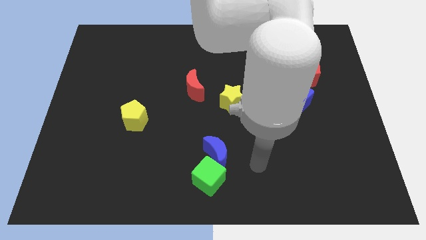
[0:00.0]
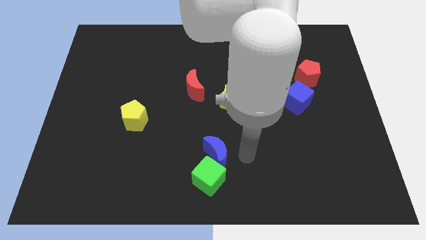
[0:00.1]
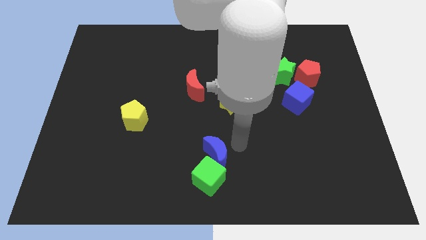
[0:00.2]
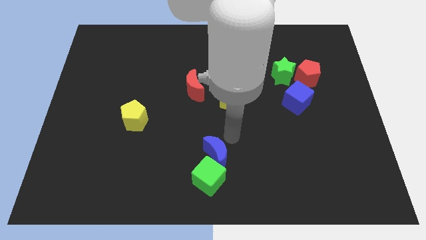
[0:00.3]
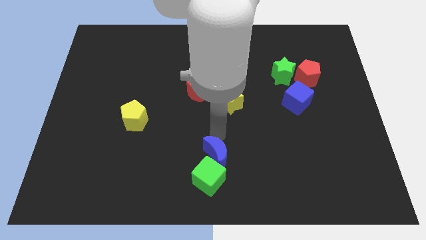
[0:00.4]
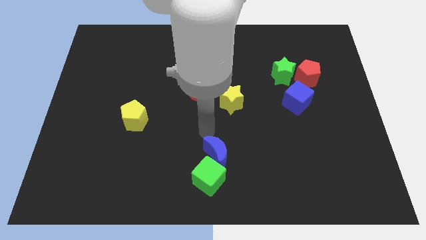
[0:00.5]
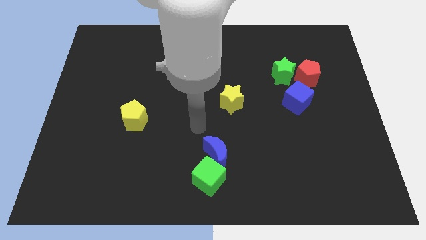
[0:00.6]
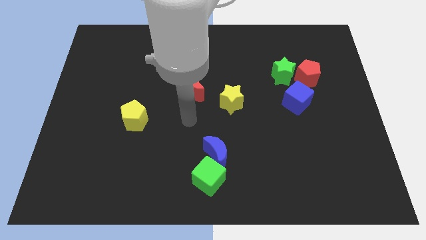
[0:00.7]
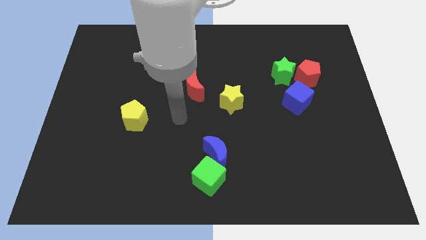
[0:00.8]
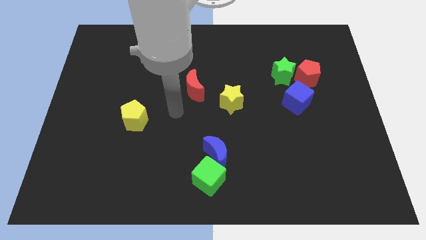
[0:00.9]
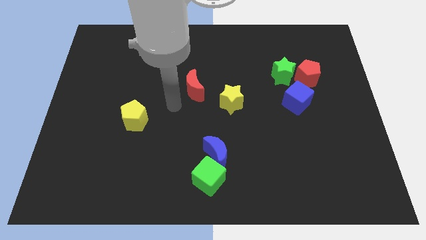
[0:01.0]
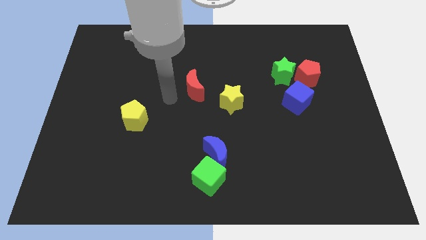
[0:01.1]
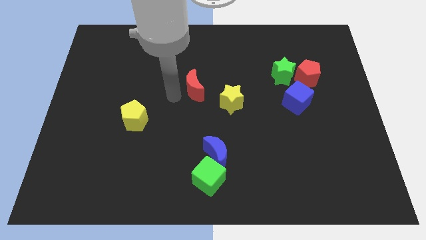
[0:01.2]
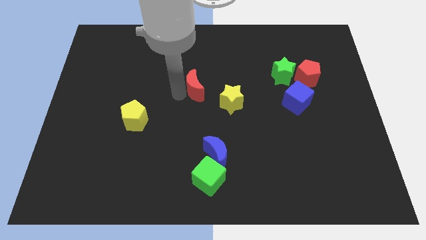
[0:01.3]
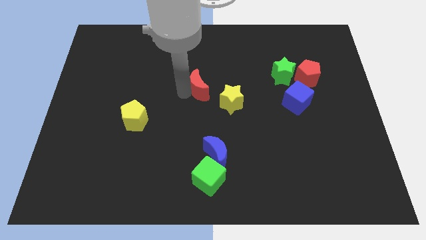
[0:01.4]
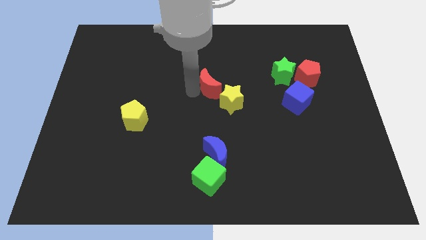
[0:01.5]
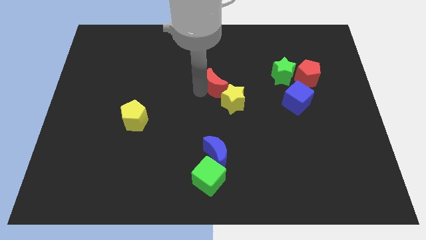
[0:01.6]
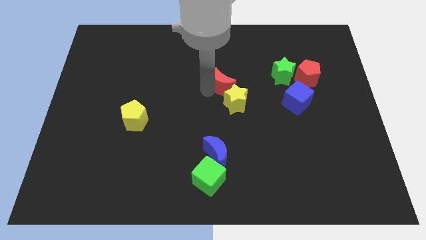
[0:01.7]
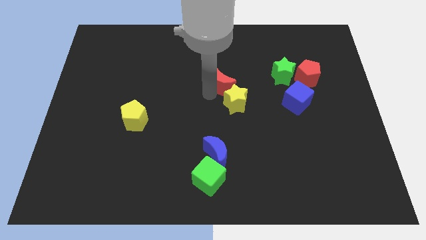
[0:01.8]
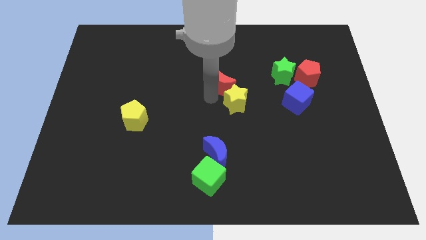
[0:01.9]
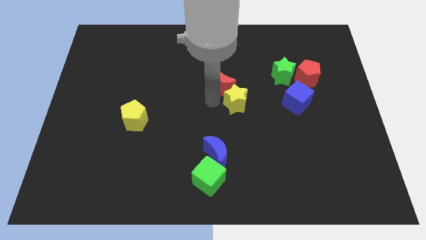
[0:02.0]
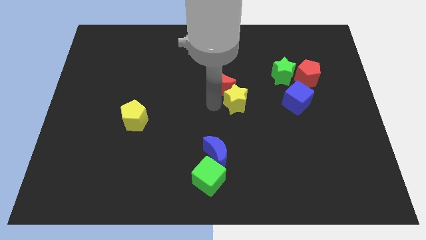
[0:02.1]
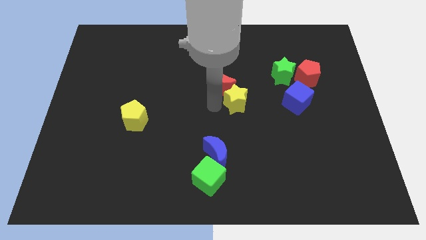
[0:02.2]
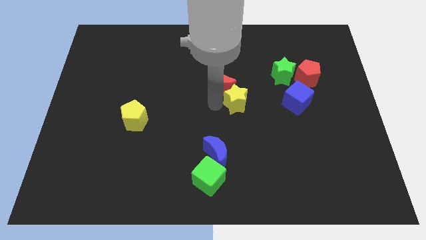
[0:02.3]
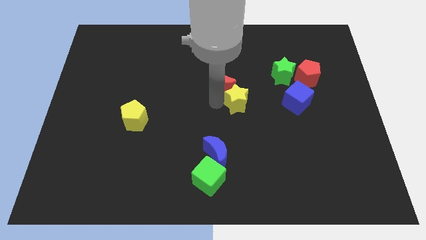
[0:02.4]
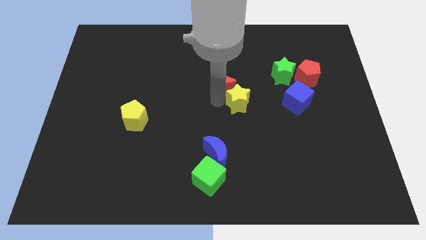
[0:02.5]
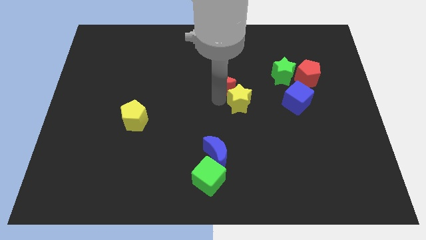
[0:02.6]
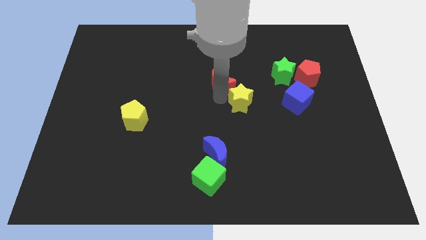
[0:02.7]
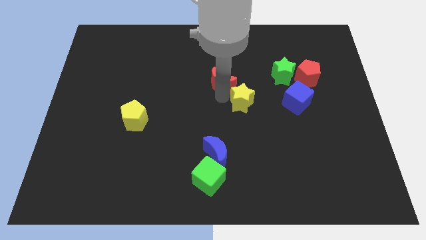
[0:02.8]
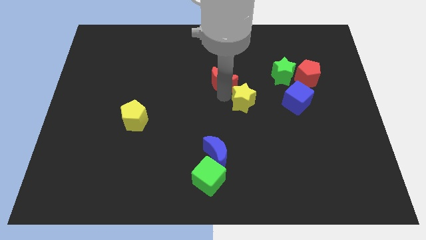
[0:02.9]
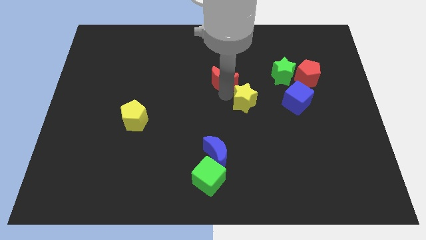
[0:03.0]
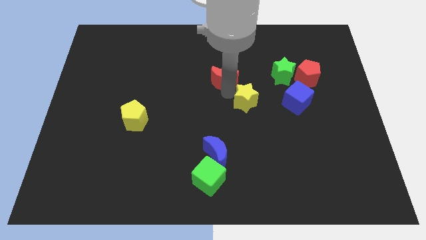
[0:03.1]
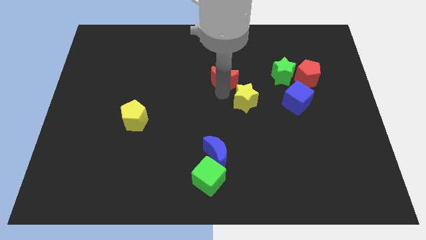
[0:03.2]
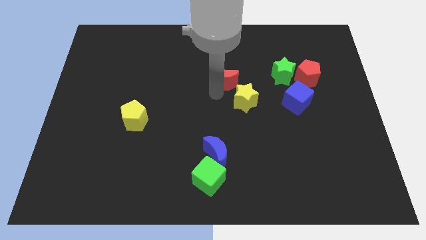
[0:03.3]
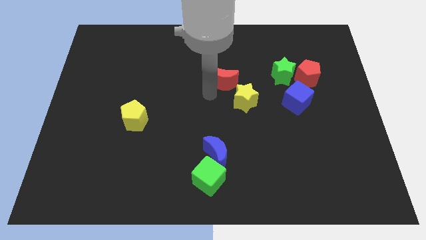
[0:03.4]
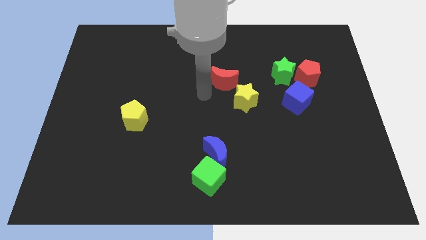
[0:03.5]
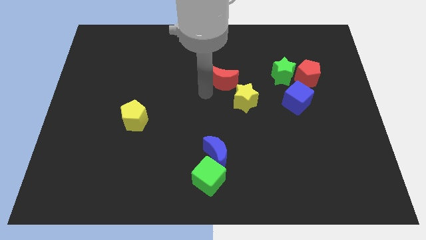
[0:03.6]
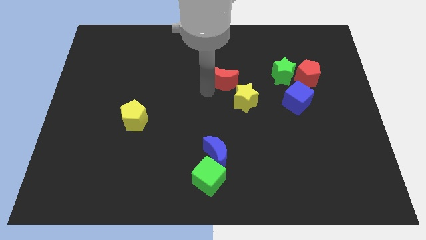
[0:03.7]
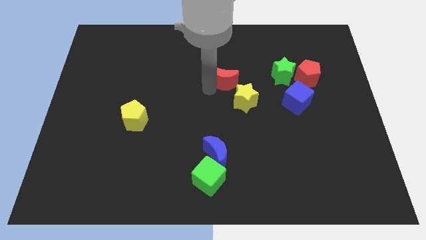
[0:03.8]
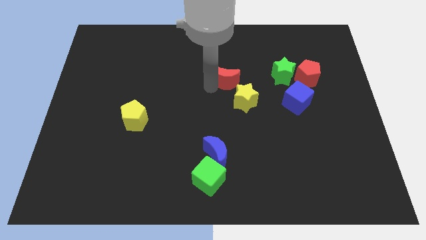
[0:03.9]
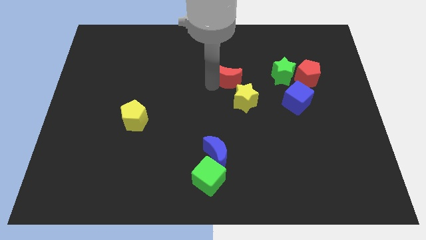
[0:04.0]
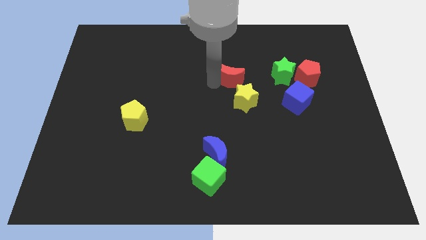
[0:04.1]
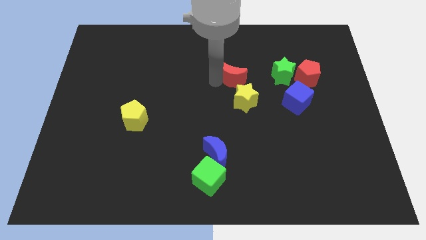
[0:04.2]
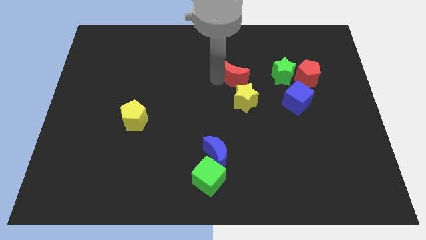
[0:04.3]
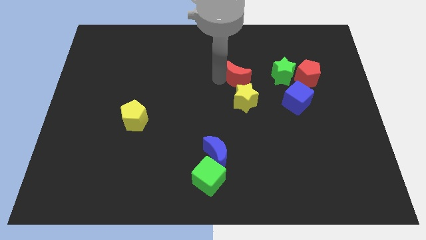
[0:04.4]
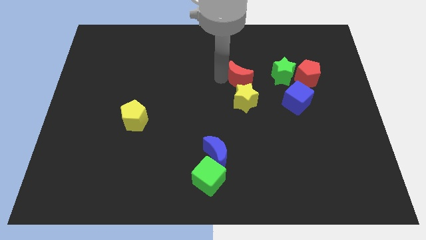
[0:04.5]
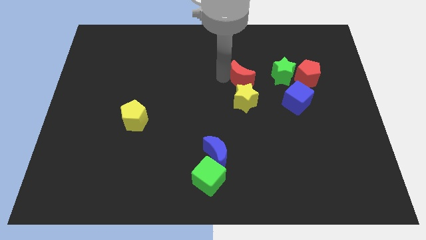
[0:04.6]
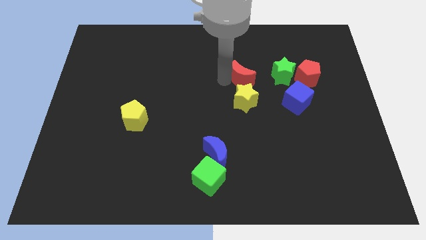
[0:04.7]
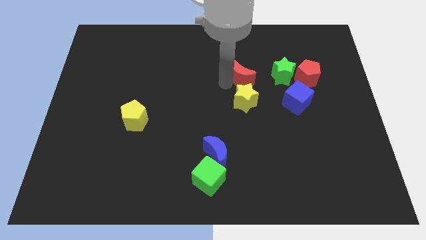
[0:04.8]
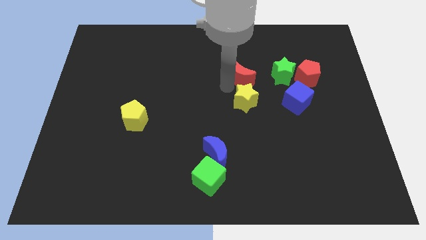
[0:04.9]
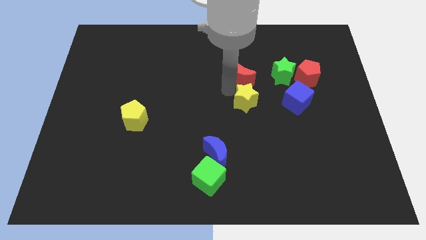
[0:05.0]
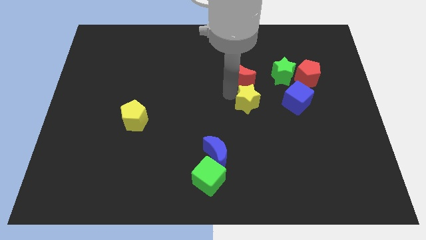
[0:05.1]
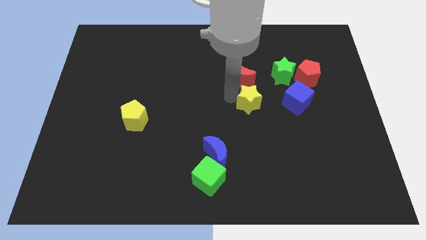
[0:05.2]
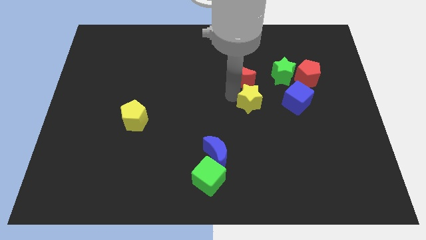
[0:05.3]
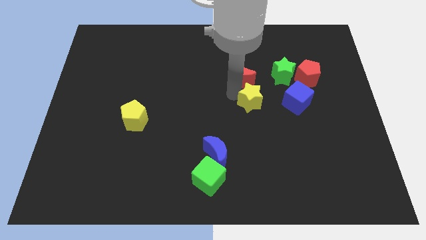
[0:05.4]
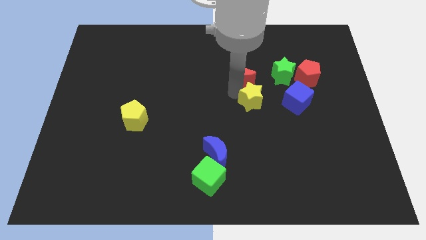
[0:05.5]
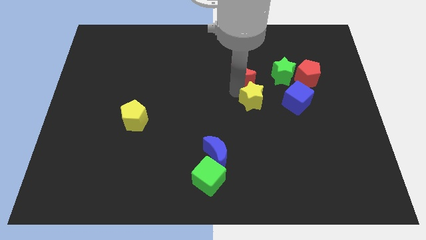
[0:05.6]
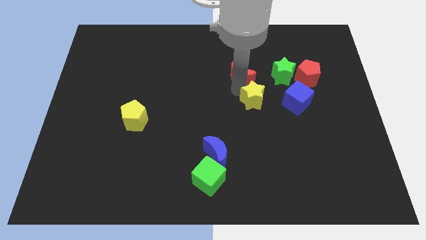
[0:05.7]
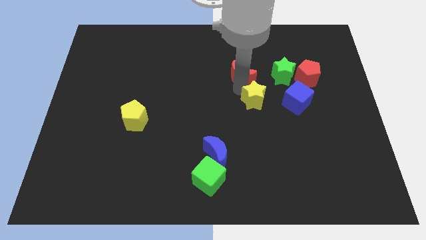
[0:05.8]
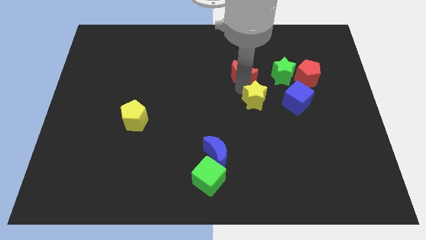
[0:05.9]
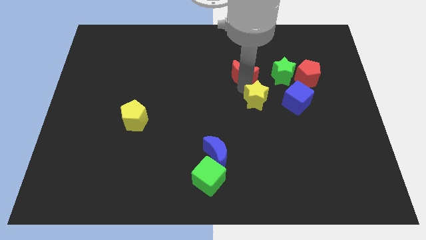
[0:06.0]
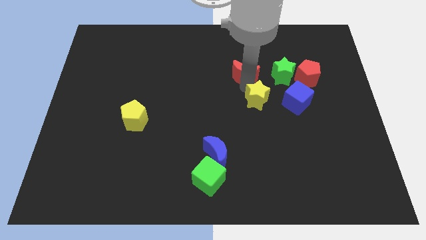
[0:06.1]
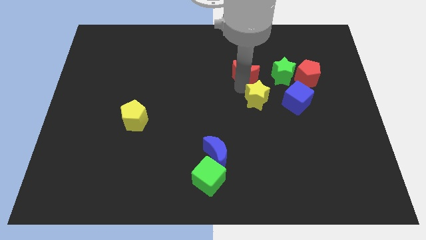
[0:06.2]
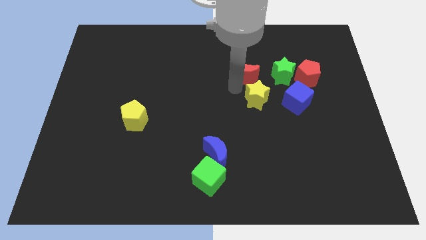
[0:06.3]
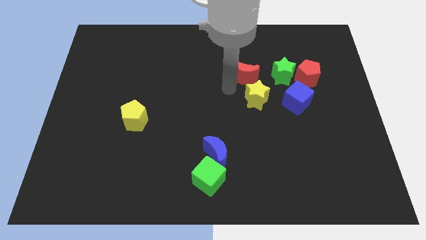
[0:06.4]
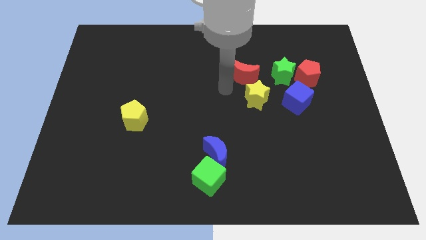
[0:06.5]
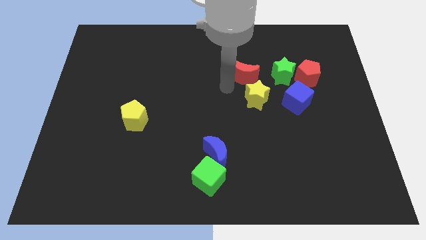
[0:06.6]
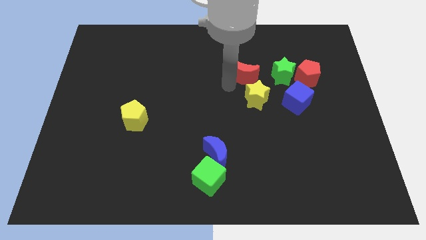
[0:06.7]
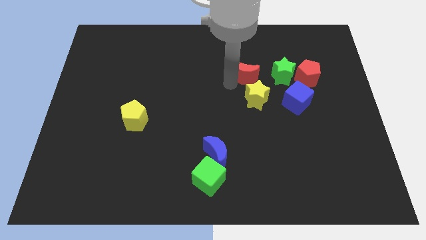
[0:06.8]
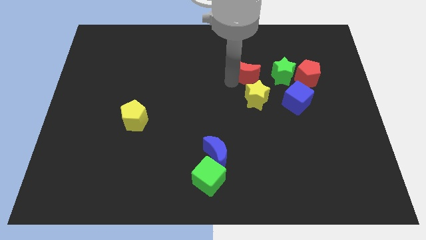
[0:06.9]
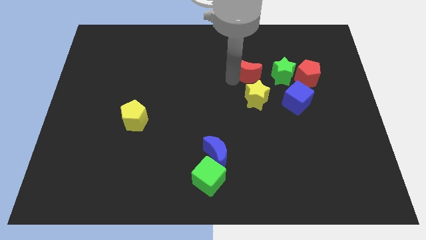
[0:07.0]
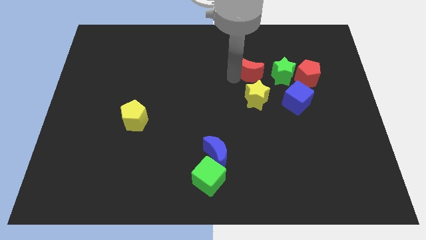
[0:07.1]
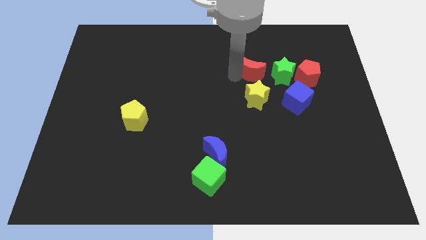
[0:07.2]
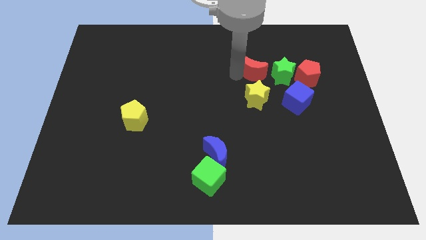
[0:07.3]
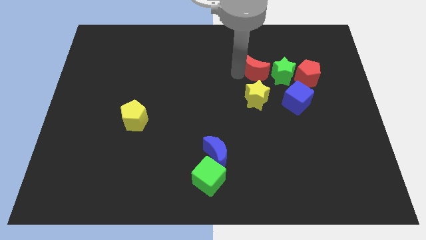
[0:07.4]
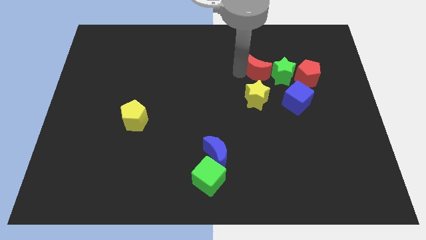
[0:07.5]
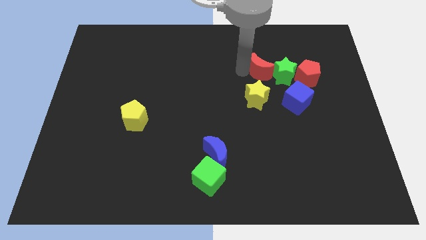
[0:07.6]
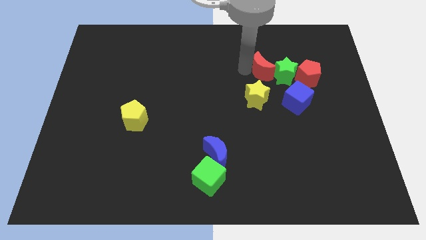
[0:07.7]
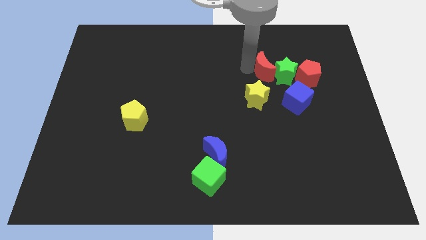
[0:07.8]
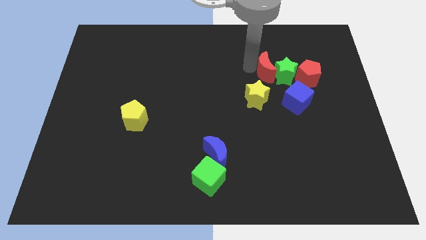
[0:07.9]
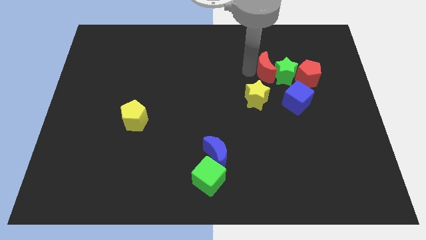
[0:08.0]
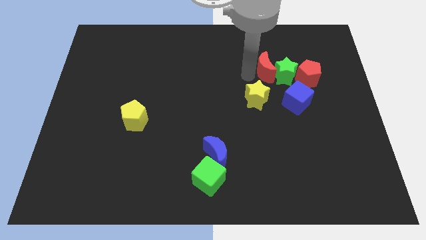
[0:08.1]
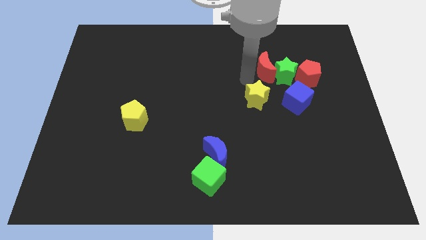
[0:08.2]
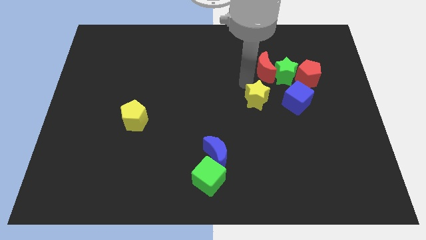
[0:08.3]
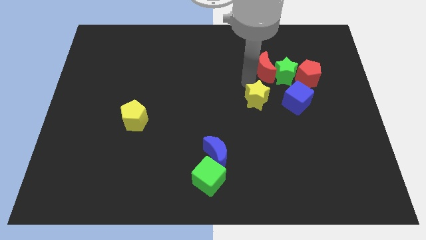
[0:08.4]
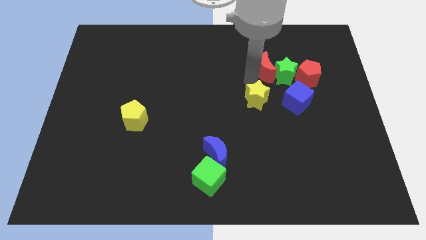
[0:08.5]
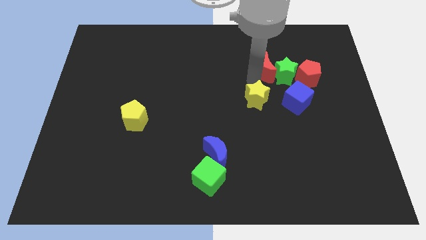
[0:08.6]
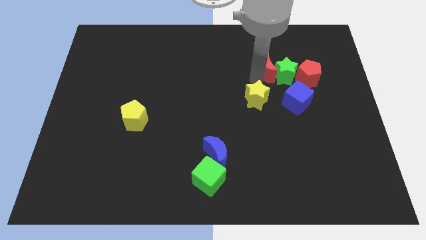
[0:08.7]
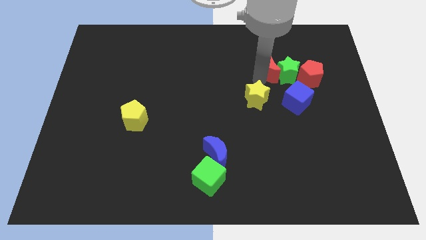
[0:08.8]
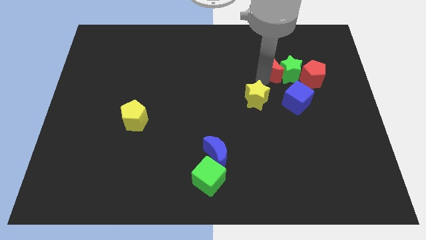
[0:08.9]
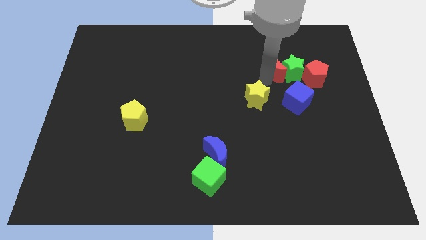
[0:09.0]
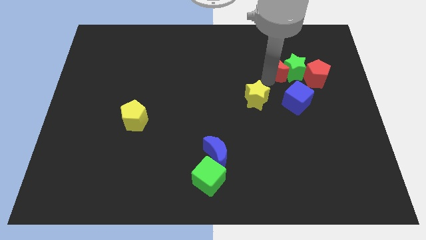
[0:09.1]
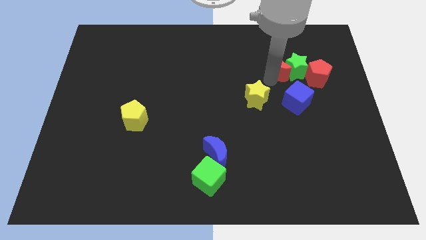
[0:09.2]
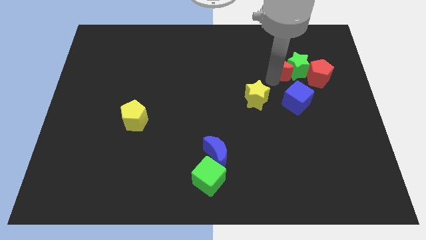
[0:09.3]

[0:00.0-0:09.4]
push the red moon to the right
